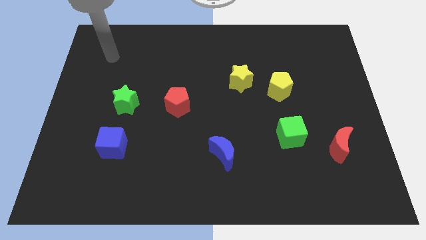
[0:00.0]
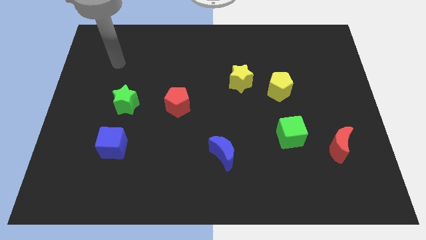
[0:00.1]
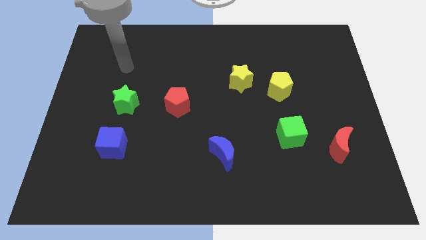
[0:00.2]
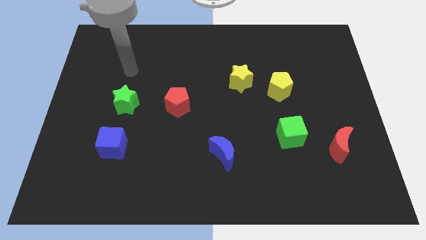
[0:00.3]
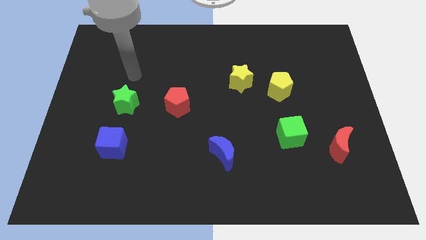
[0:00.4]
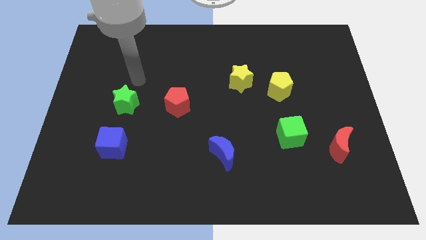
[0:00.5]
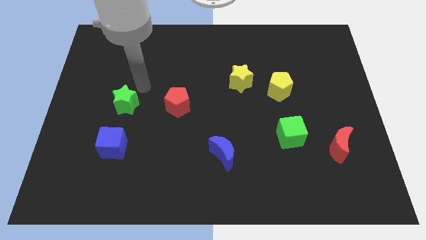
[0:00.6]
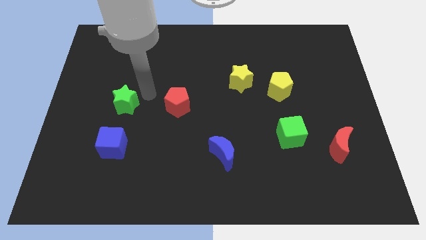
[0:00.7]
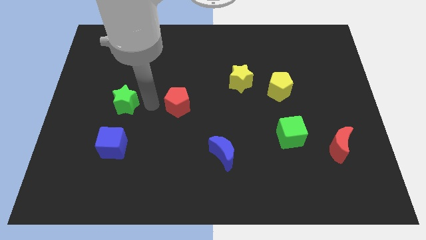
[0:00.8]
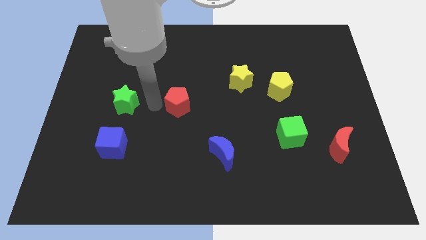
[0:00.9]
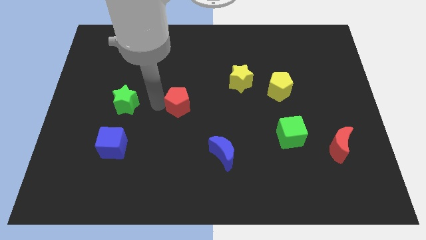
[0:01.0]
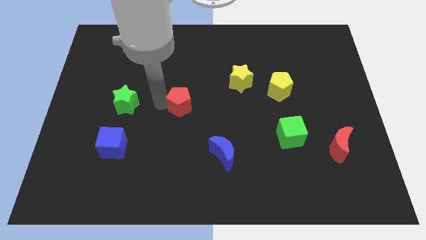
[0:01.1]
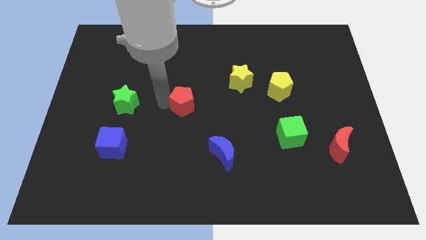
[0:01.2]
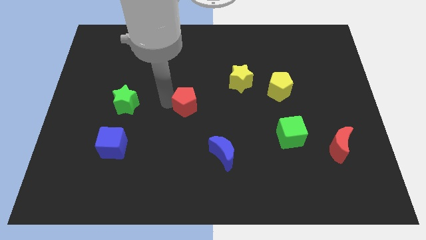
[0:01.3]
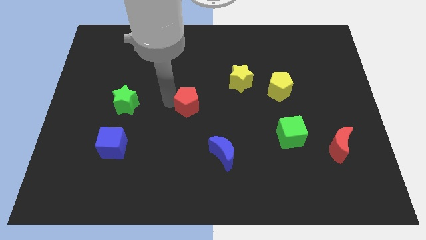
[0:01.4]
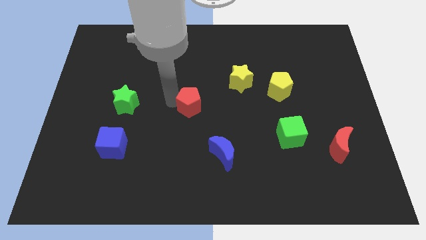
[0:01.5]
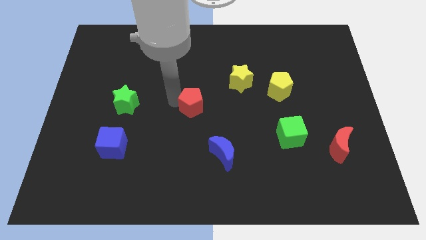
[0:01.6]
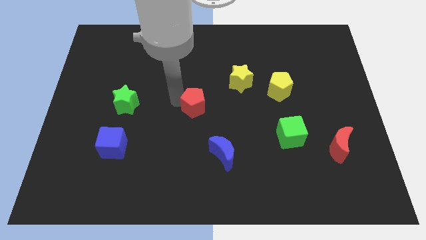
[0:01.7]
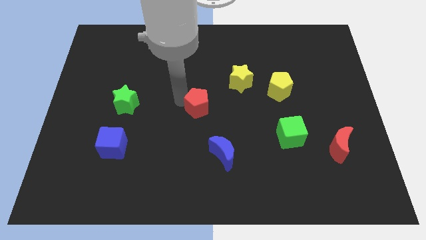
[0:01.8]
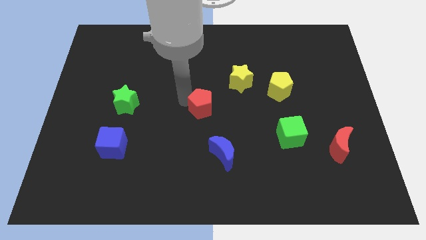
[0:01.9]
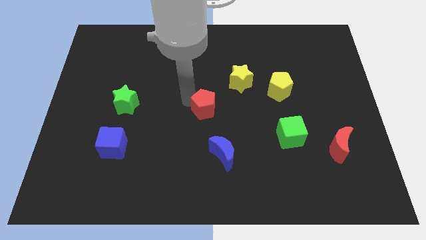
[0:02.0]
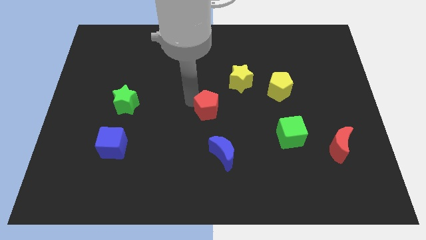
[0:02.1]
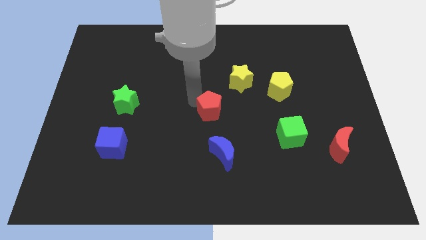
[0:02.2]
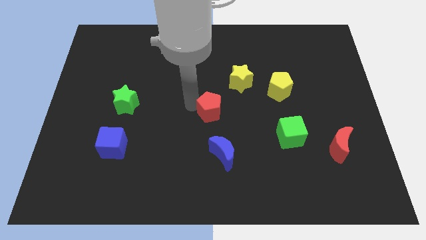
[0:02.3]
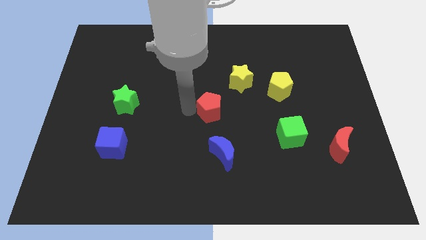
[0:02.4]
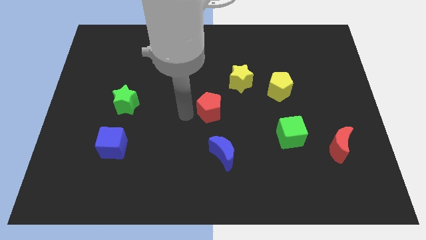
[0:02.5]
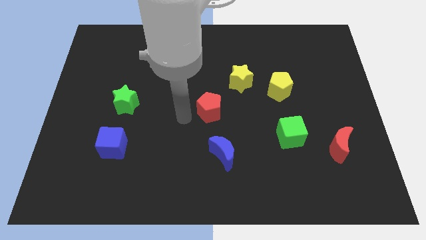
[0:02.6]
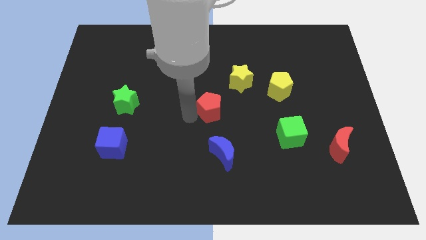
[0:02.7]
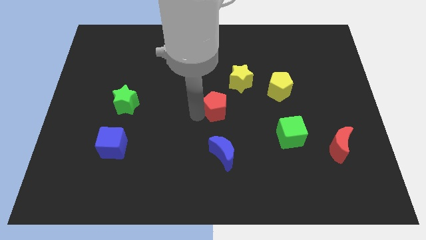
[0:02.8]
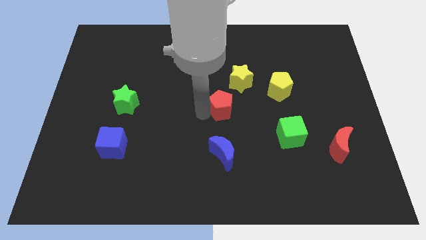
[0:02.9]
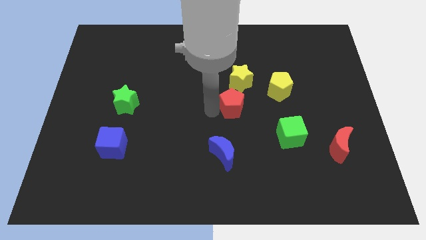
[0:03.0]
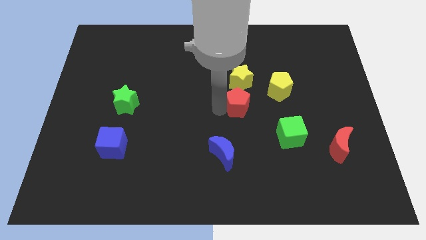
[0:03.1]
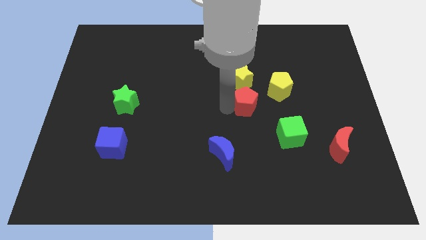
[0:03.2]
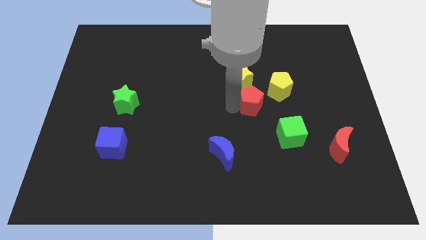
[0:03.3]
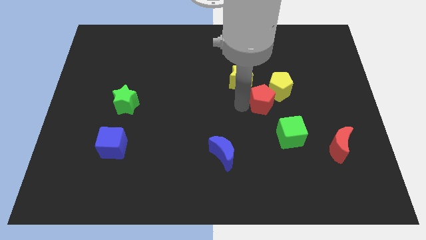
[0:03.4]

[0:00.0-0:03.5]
move the red pentagon right

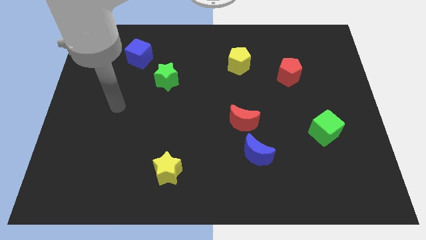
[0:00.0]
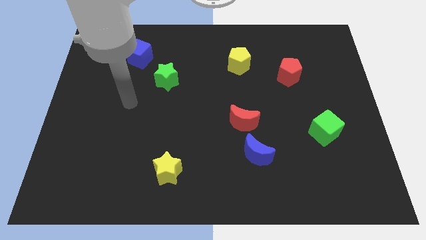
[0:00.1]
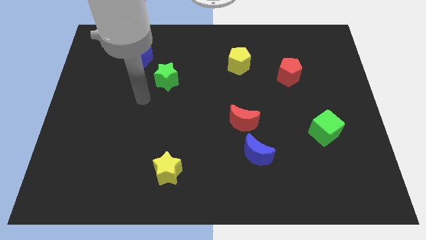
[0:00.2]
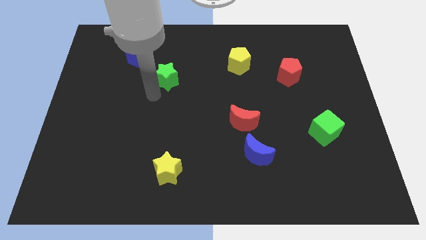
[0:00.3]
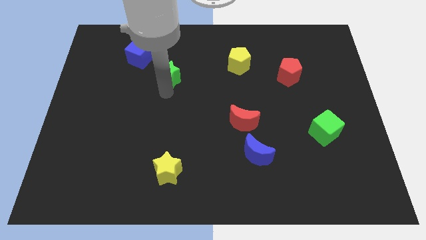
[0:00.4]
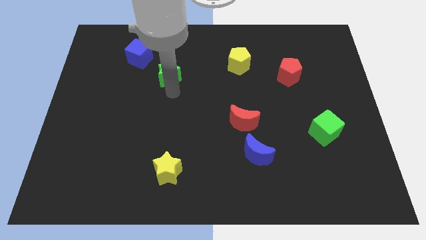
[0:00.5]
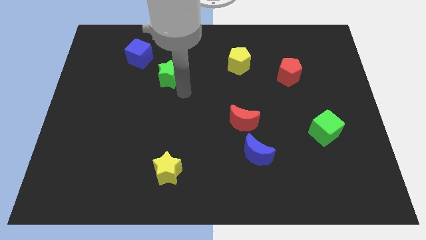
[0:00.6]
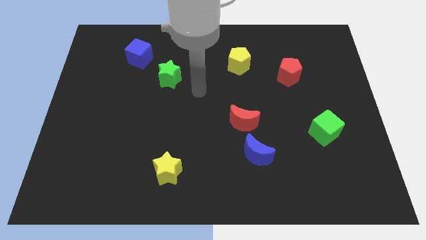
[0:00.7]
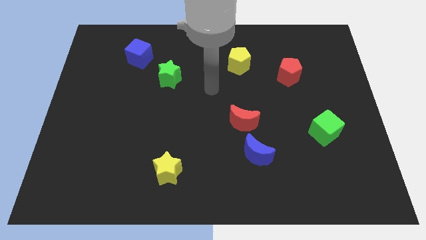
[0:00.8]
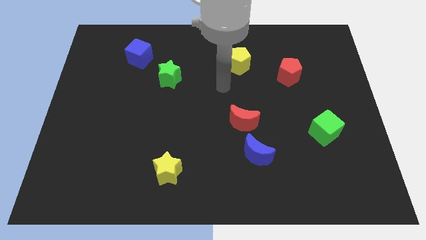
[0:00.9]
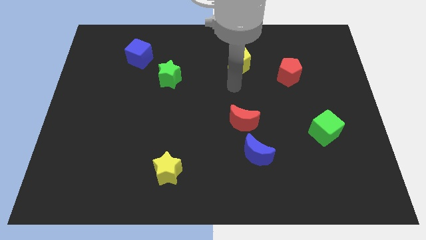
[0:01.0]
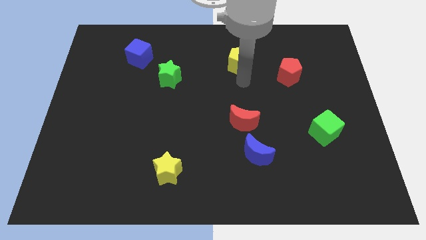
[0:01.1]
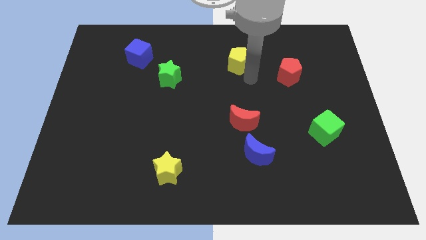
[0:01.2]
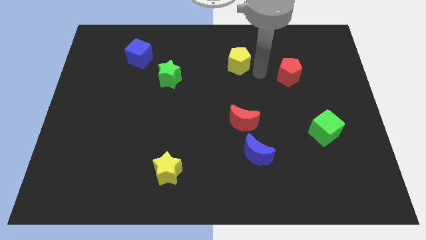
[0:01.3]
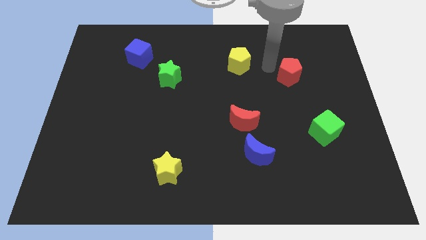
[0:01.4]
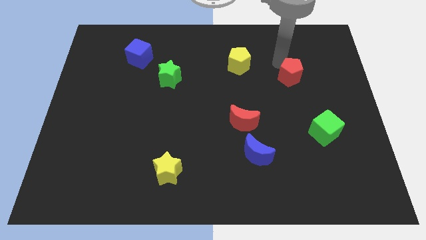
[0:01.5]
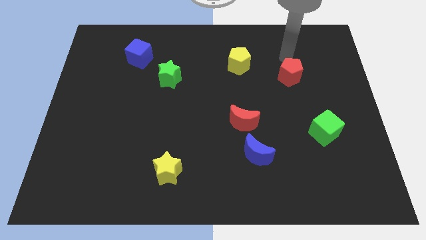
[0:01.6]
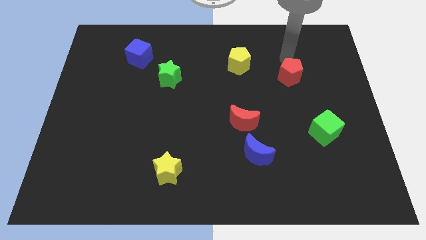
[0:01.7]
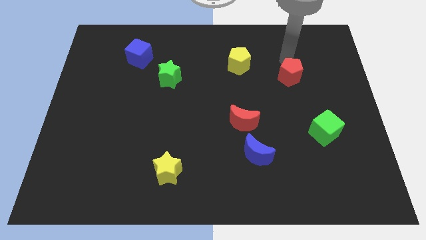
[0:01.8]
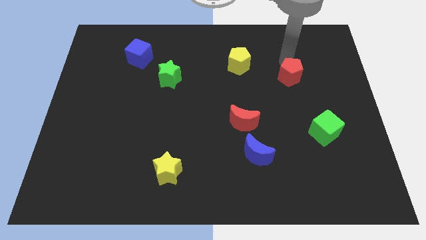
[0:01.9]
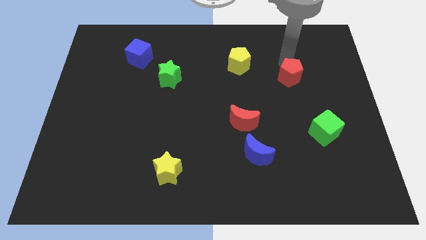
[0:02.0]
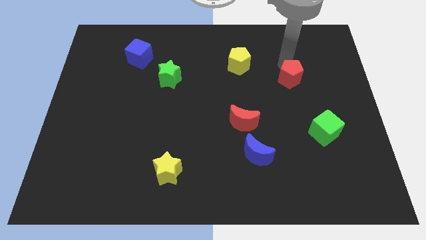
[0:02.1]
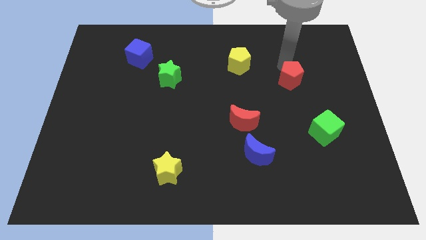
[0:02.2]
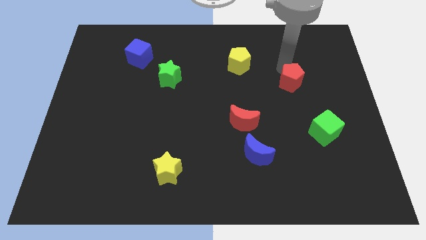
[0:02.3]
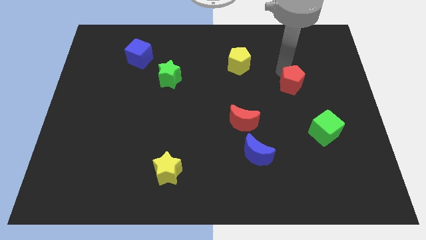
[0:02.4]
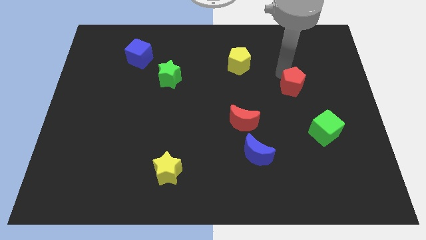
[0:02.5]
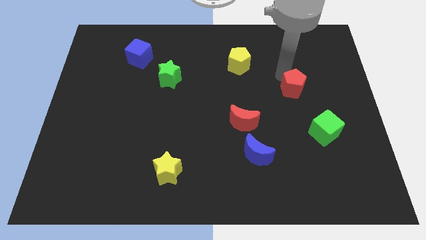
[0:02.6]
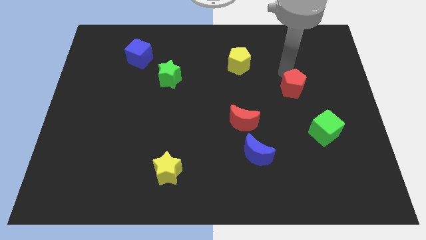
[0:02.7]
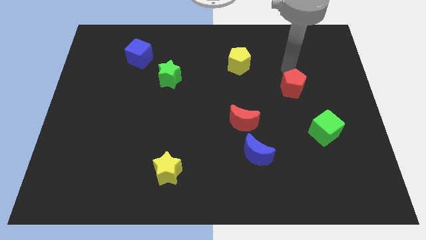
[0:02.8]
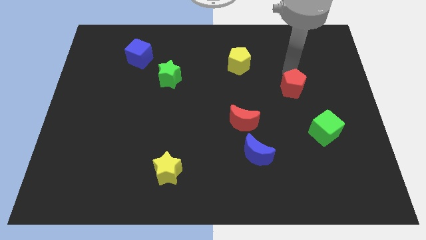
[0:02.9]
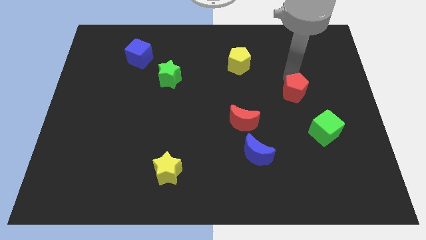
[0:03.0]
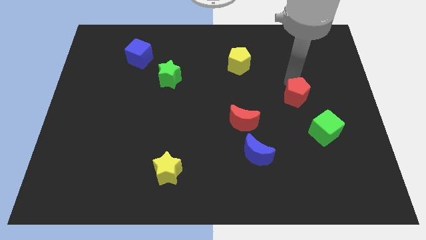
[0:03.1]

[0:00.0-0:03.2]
move the red pentagon downwards slightly

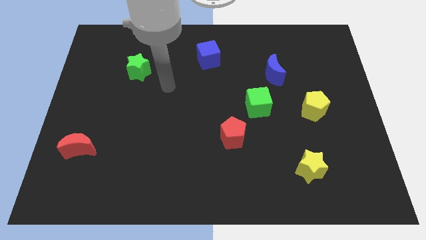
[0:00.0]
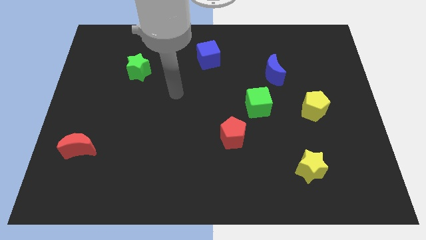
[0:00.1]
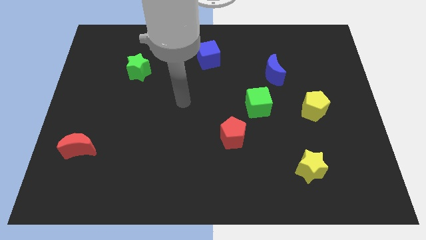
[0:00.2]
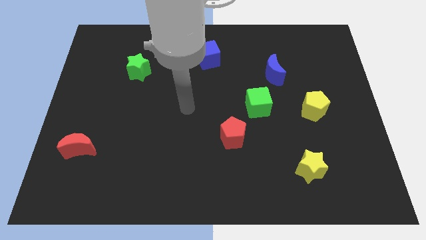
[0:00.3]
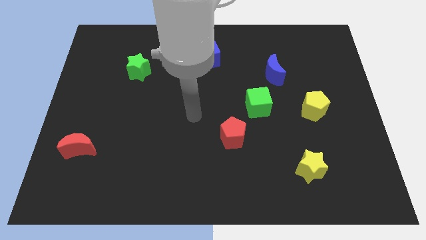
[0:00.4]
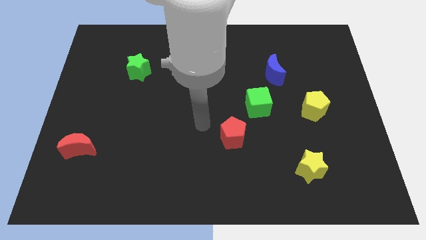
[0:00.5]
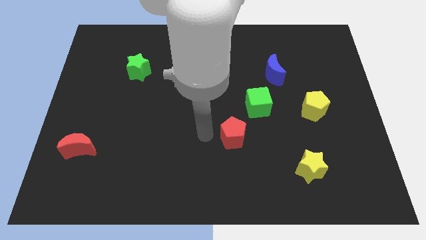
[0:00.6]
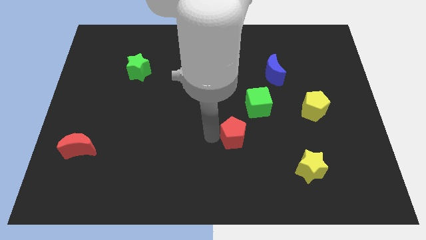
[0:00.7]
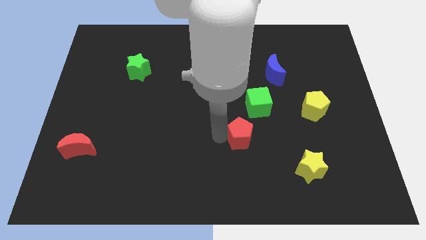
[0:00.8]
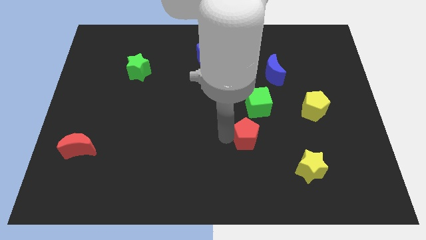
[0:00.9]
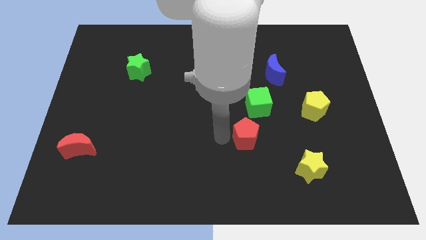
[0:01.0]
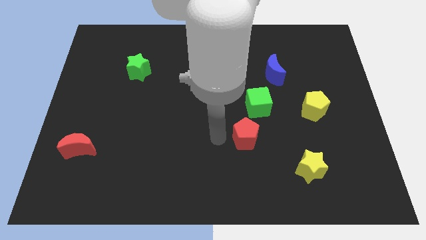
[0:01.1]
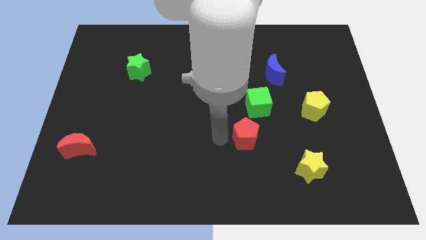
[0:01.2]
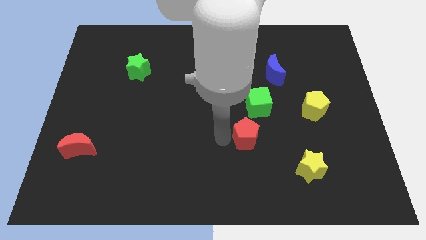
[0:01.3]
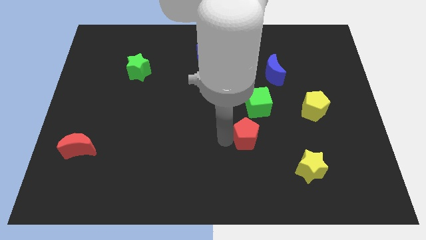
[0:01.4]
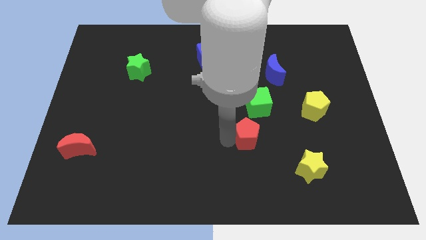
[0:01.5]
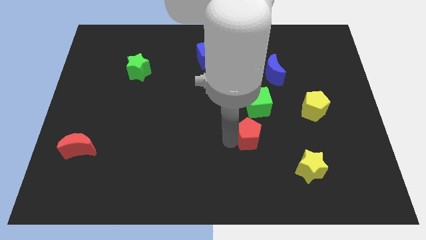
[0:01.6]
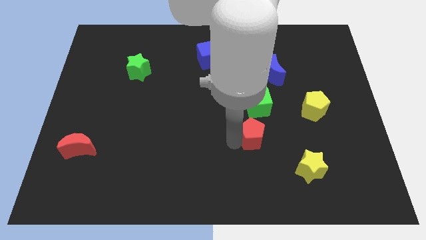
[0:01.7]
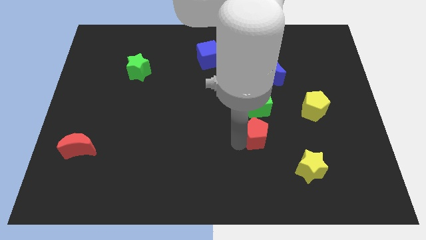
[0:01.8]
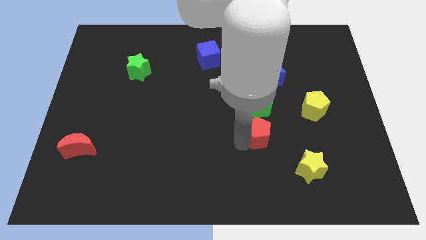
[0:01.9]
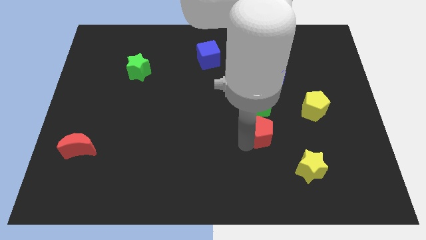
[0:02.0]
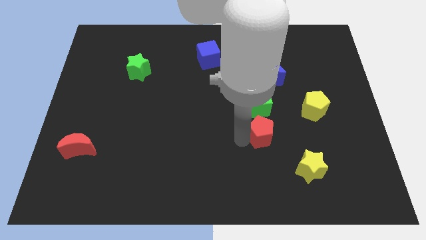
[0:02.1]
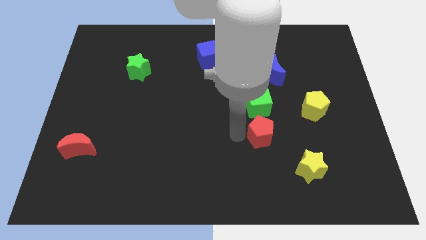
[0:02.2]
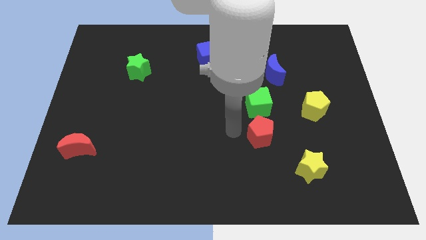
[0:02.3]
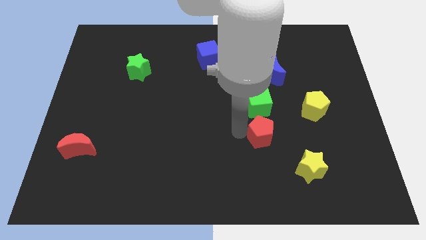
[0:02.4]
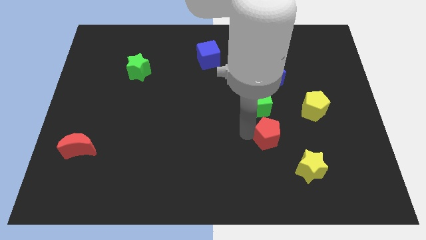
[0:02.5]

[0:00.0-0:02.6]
push the red pentagon somewhat to the right
